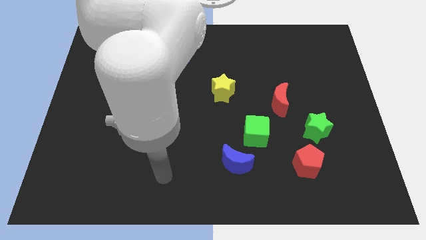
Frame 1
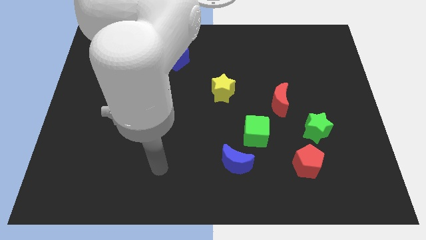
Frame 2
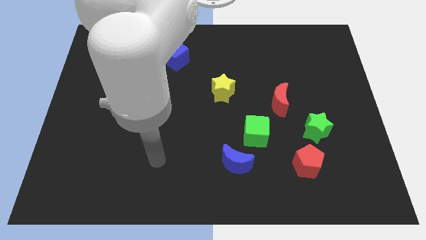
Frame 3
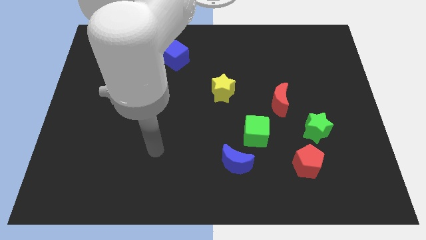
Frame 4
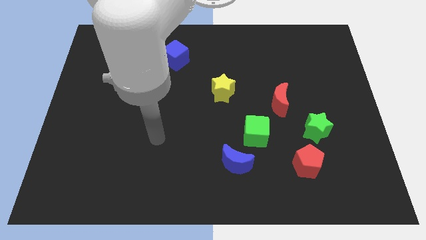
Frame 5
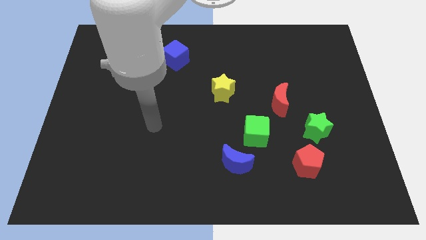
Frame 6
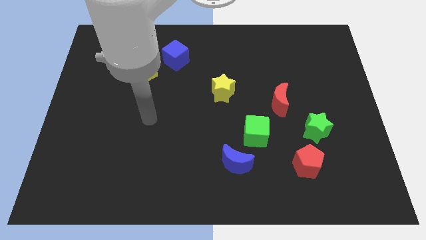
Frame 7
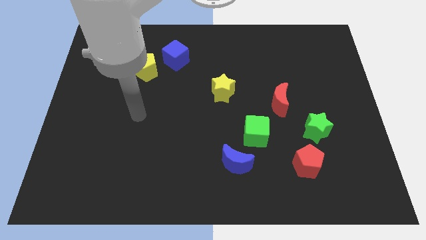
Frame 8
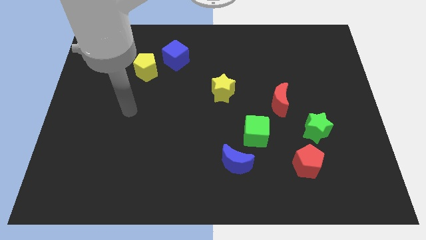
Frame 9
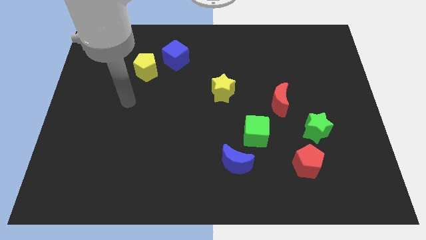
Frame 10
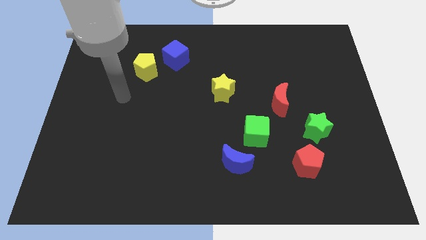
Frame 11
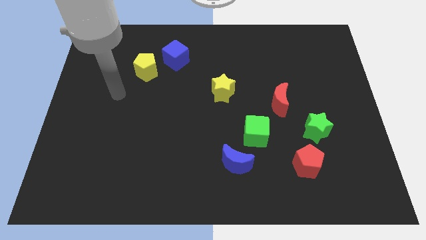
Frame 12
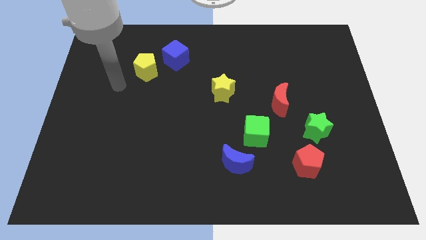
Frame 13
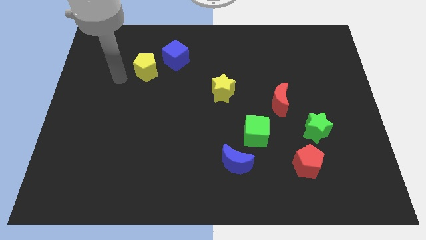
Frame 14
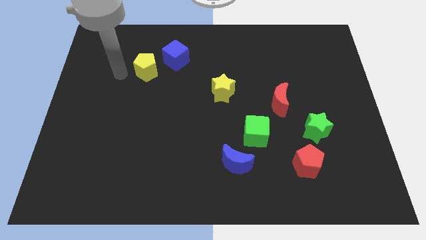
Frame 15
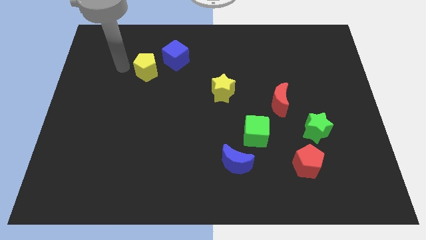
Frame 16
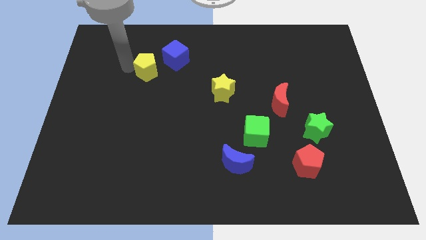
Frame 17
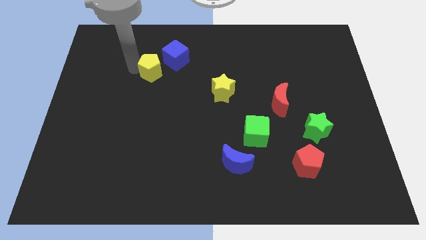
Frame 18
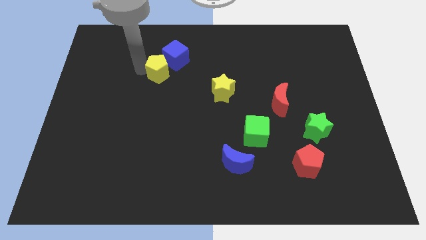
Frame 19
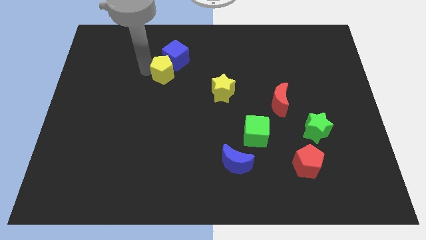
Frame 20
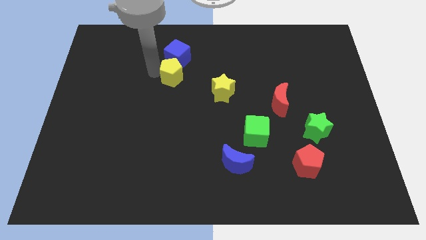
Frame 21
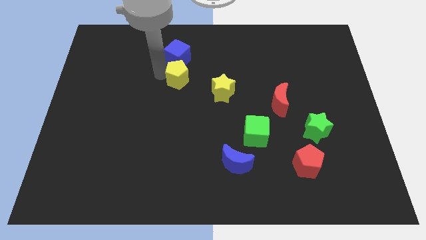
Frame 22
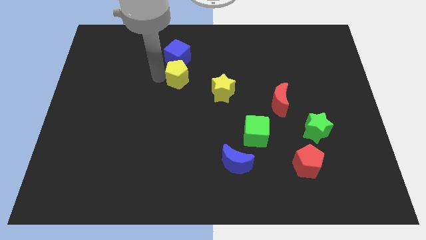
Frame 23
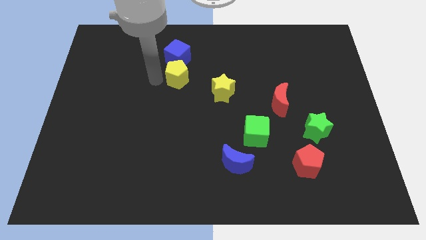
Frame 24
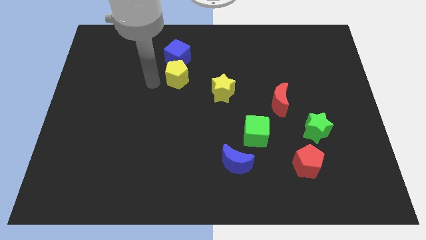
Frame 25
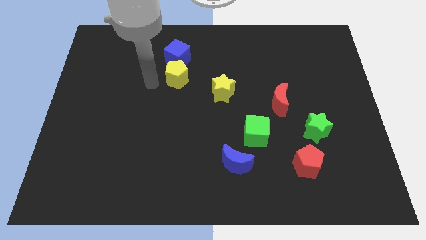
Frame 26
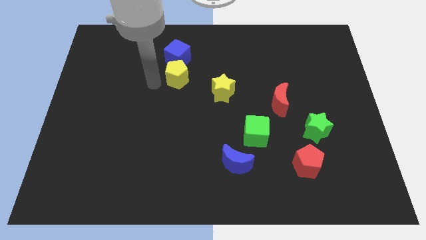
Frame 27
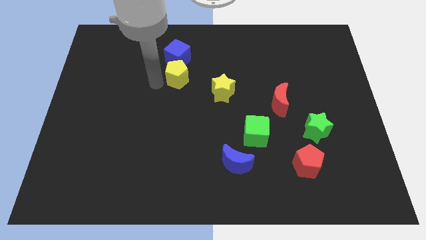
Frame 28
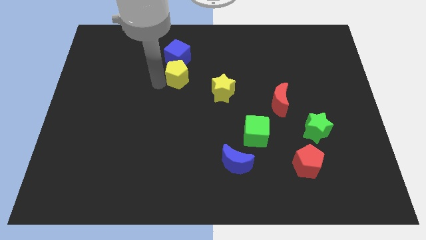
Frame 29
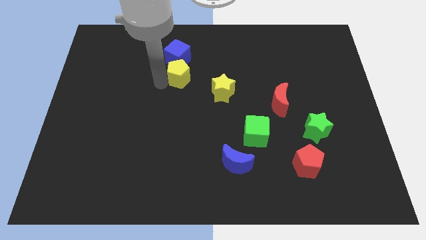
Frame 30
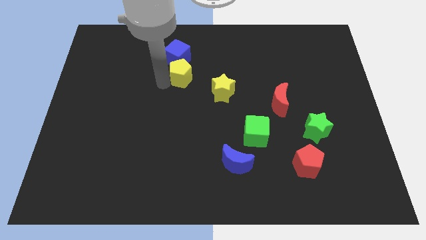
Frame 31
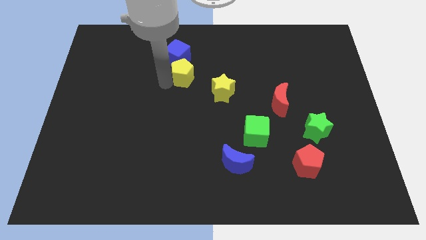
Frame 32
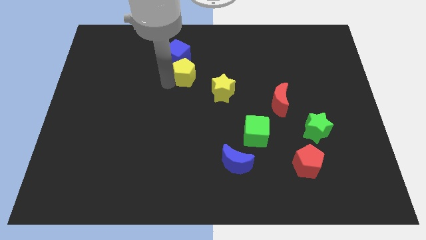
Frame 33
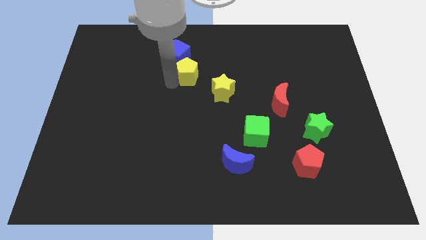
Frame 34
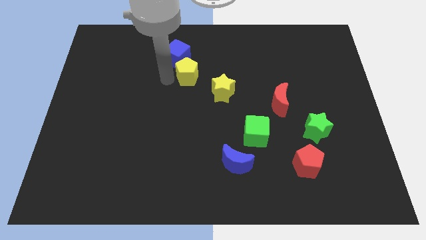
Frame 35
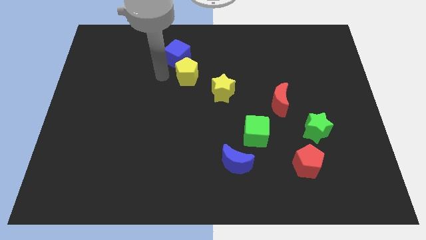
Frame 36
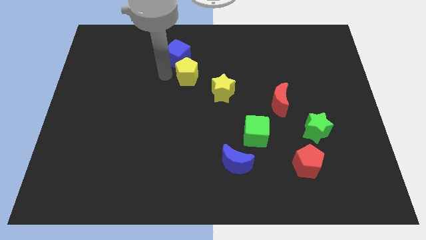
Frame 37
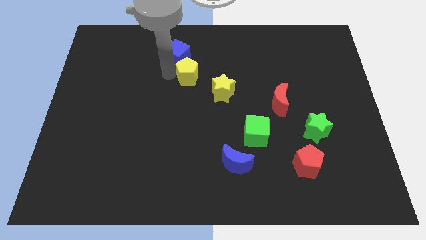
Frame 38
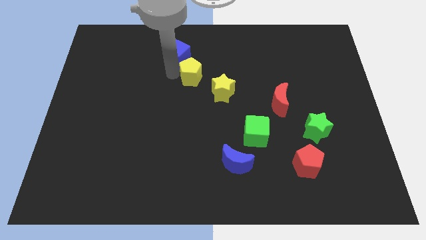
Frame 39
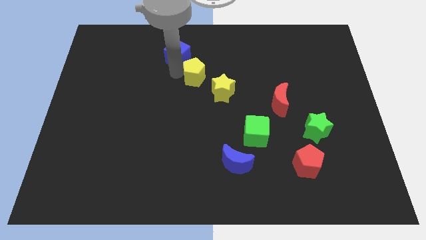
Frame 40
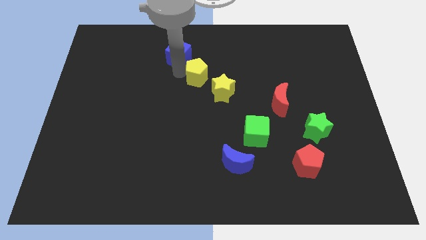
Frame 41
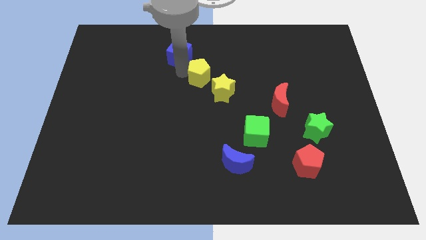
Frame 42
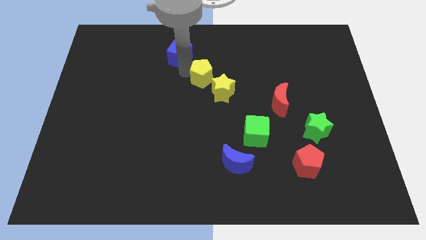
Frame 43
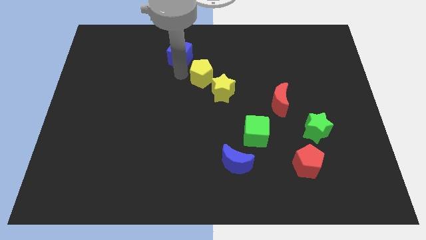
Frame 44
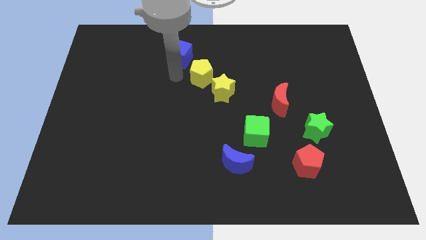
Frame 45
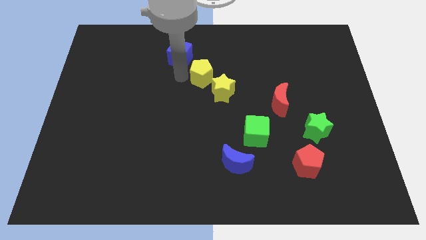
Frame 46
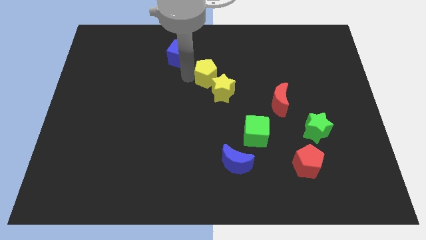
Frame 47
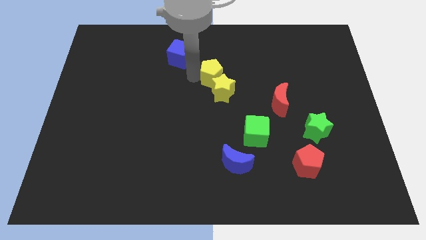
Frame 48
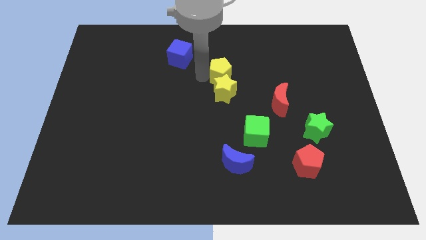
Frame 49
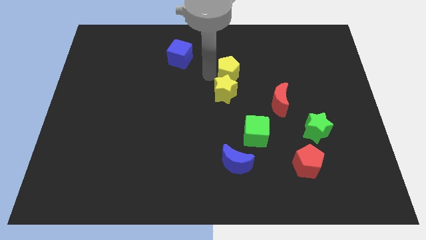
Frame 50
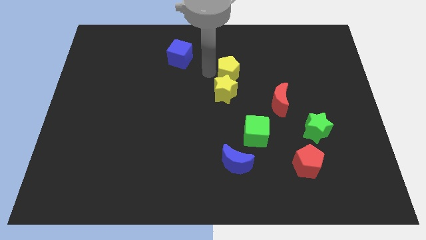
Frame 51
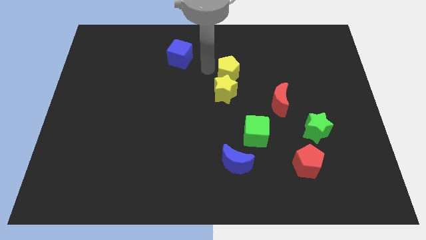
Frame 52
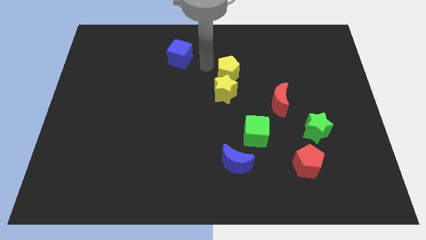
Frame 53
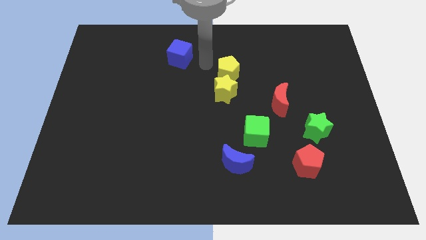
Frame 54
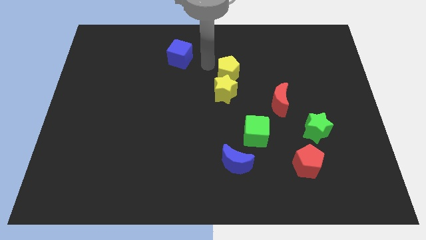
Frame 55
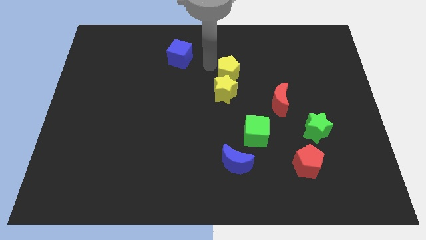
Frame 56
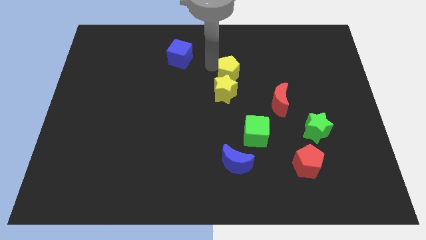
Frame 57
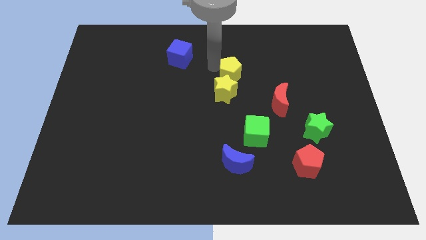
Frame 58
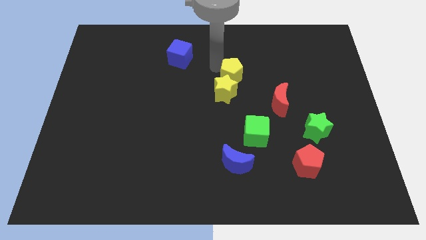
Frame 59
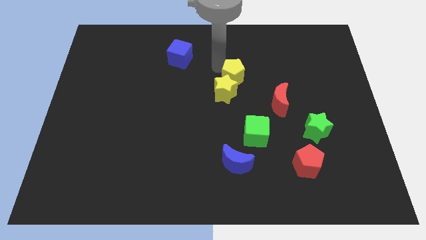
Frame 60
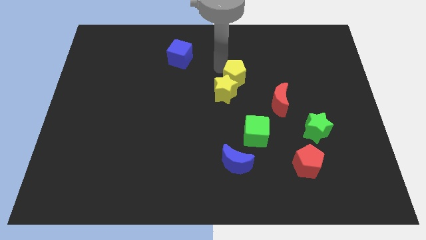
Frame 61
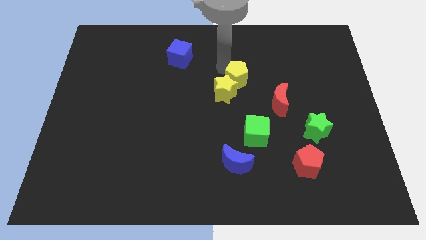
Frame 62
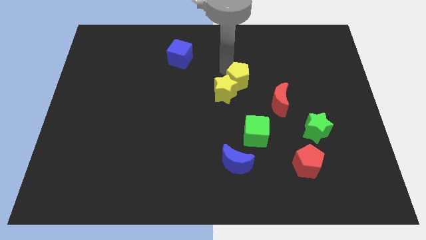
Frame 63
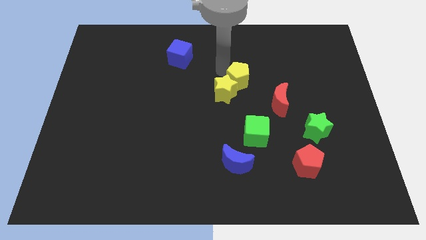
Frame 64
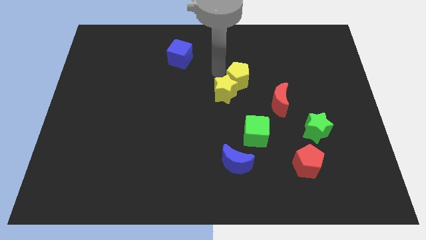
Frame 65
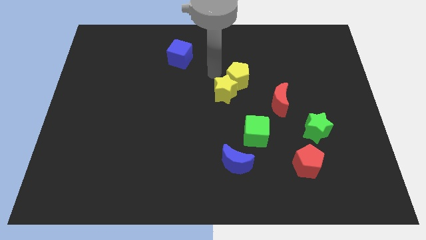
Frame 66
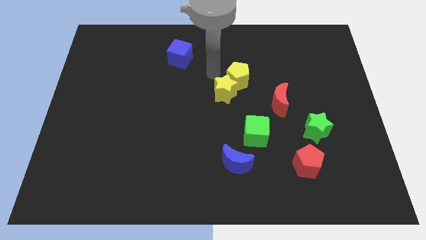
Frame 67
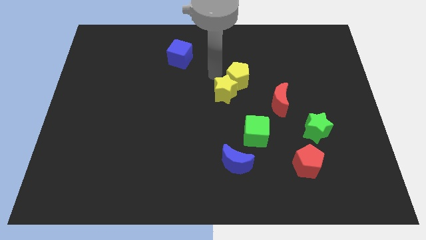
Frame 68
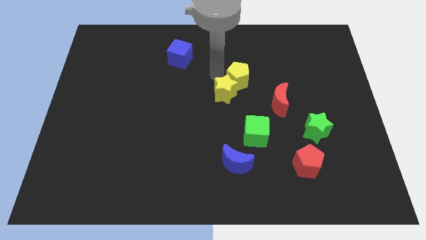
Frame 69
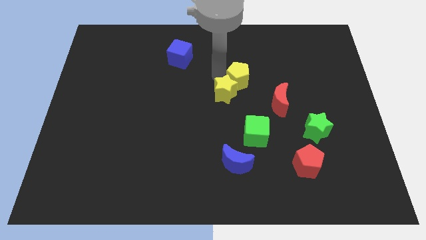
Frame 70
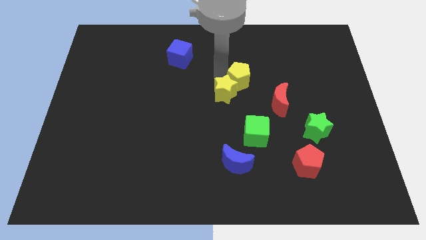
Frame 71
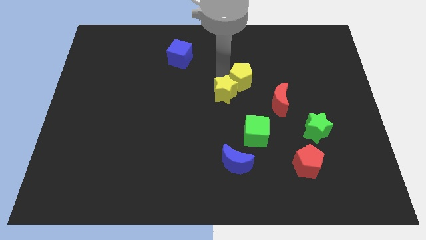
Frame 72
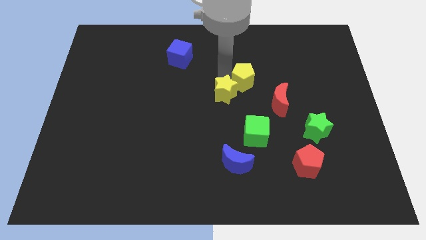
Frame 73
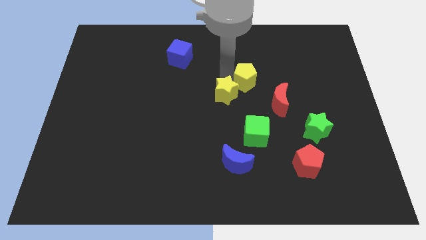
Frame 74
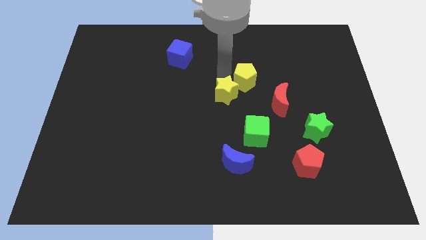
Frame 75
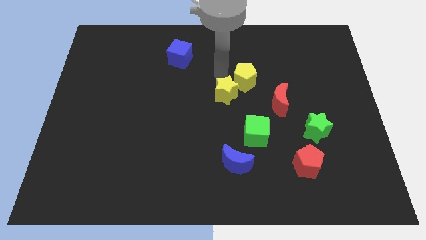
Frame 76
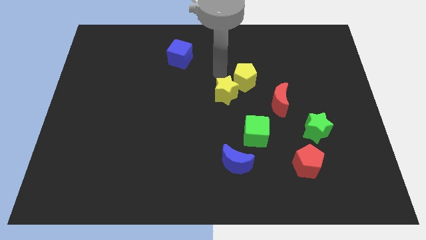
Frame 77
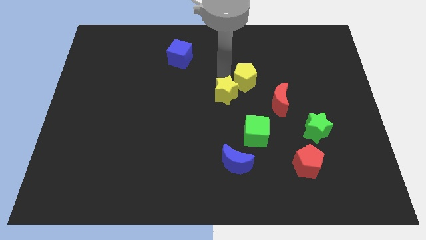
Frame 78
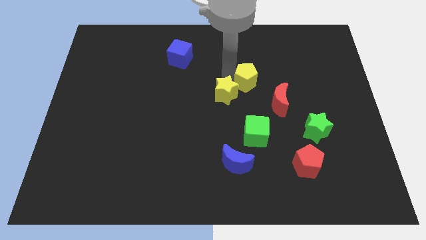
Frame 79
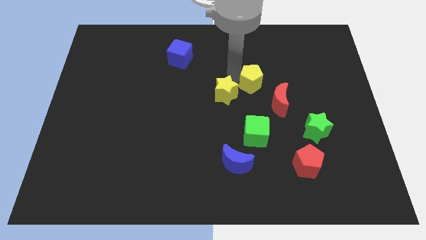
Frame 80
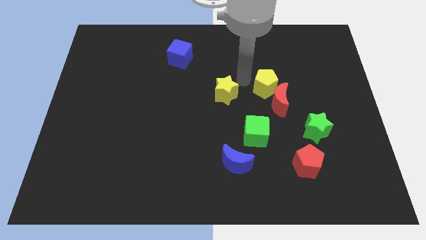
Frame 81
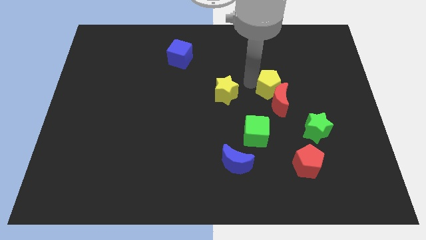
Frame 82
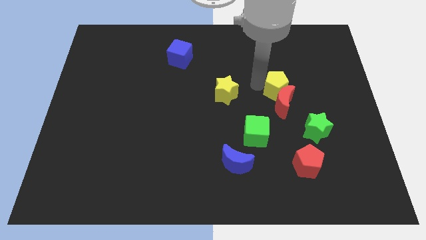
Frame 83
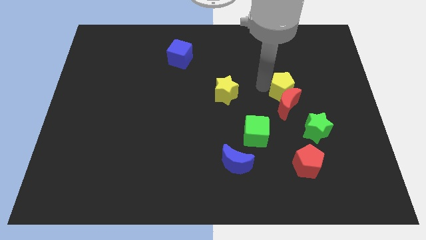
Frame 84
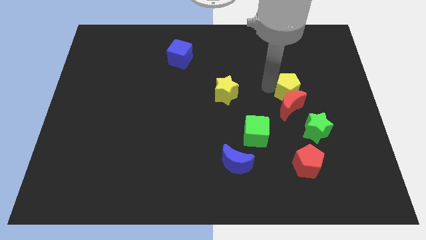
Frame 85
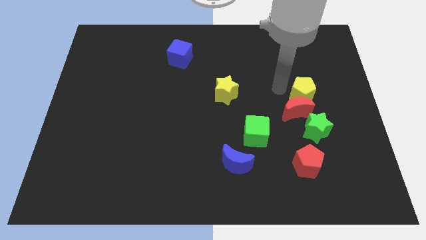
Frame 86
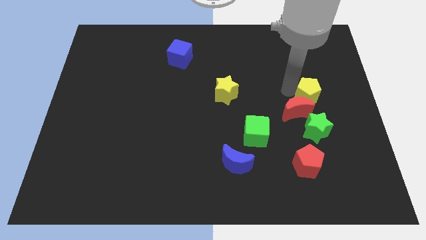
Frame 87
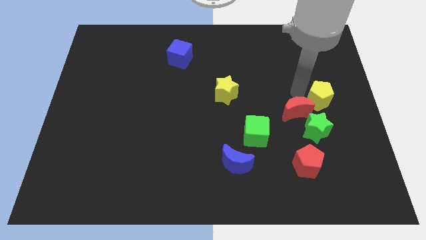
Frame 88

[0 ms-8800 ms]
push the yellow pentagon right of the red moon

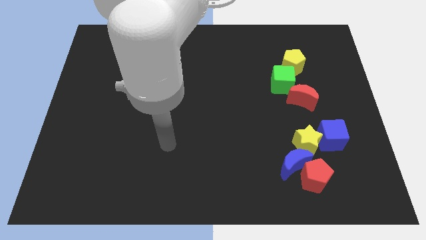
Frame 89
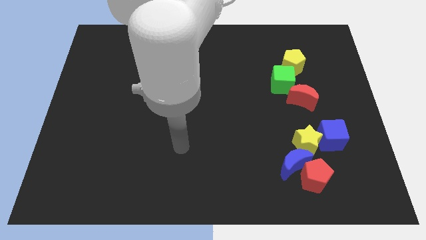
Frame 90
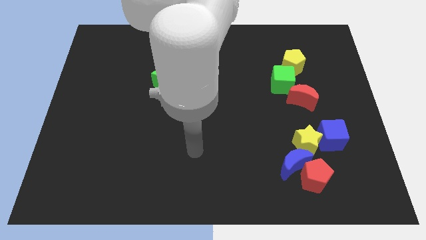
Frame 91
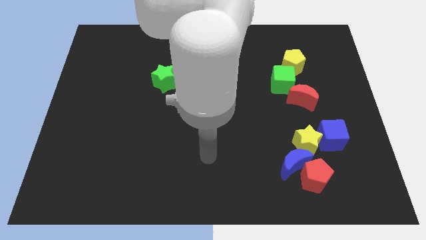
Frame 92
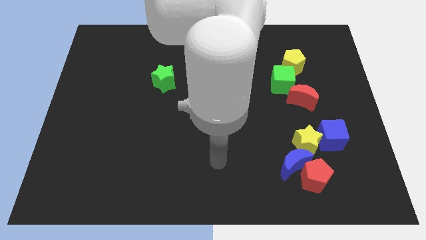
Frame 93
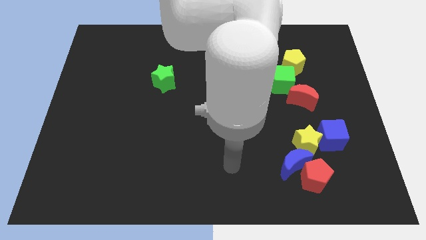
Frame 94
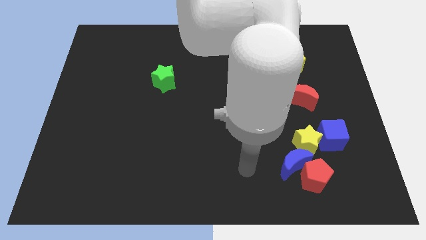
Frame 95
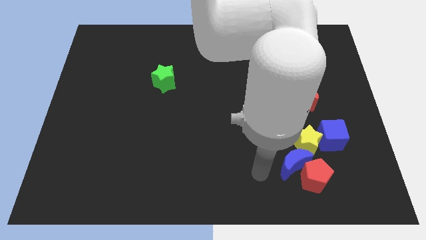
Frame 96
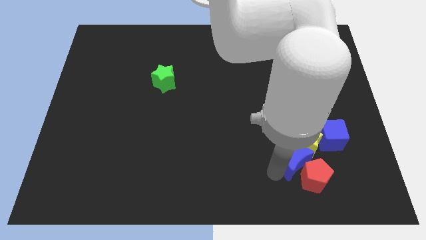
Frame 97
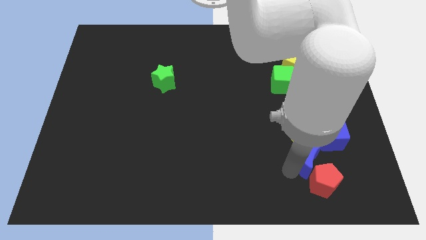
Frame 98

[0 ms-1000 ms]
put the yellow star to the top left side of the blue cube
